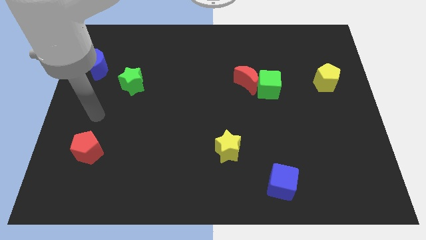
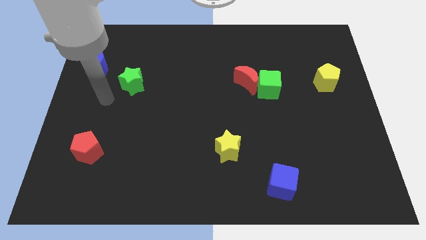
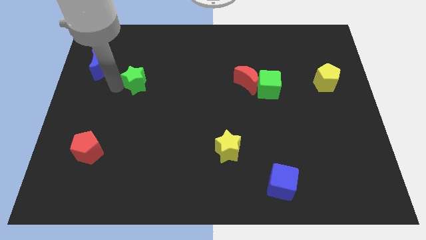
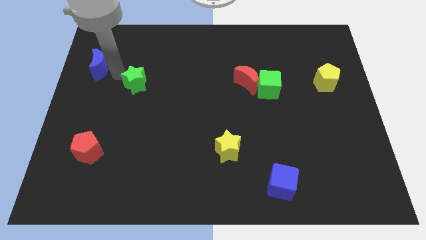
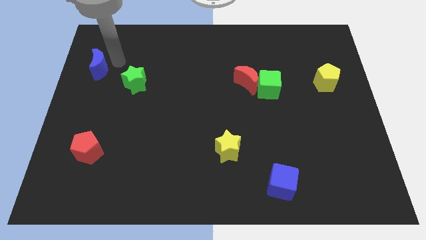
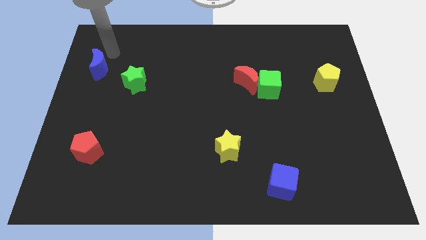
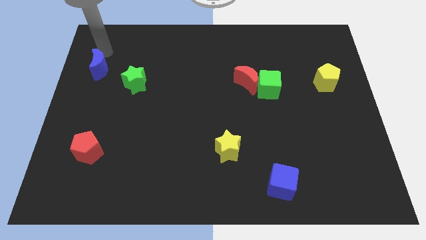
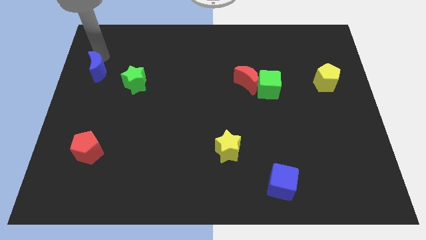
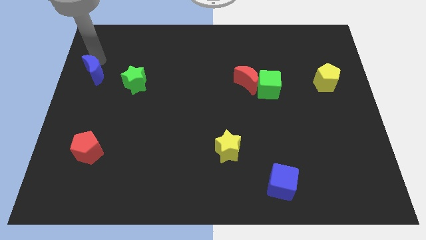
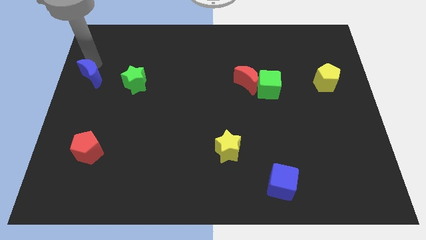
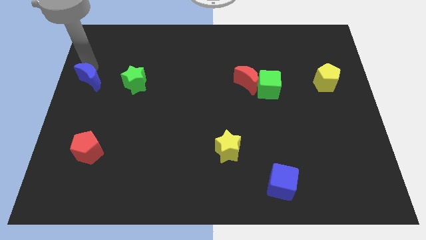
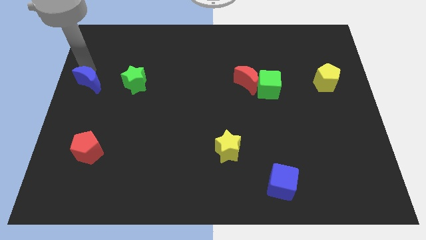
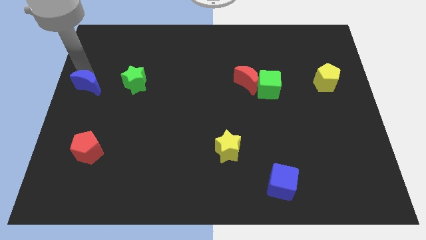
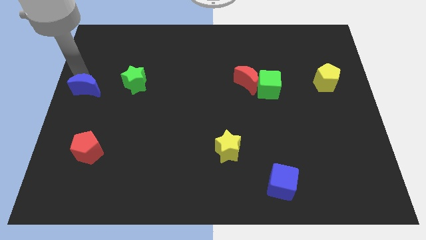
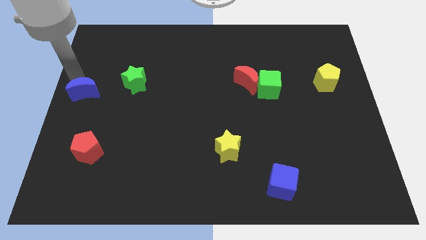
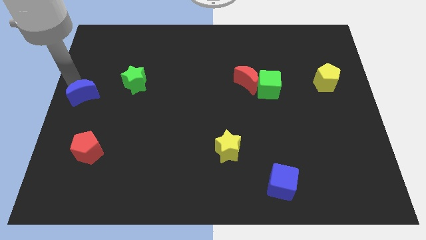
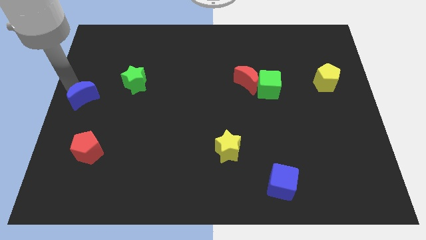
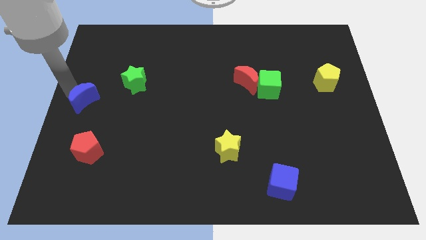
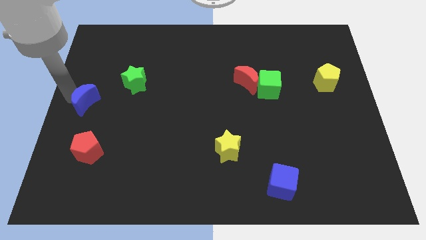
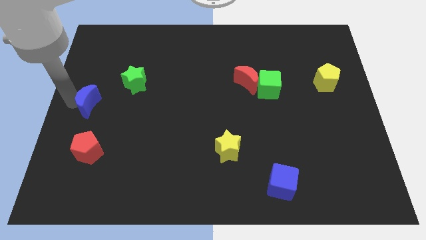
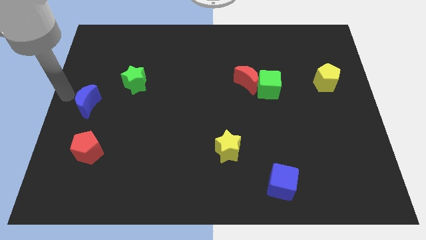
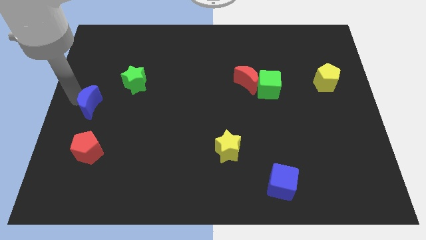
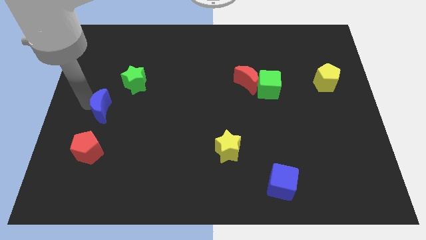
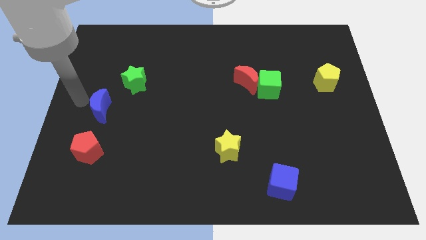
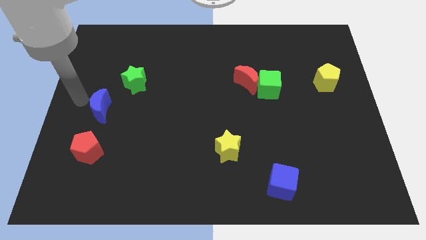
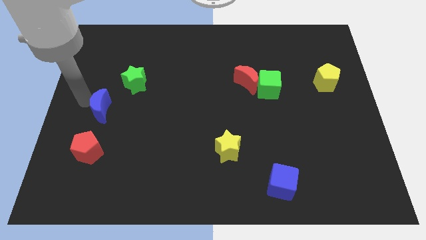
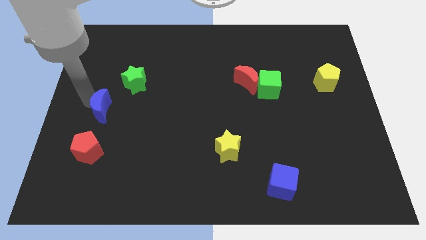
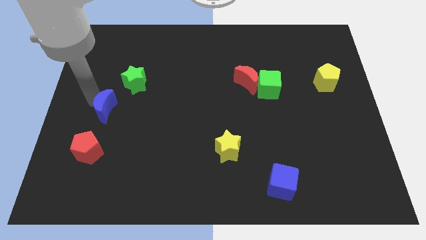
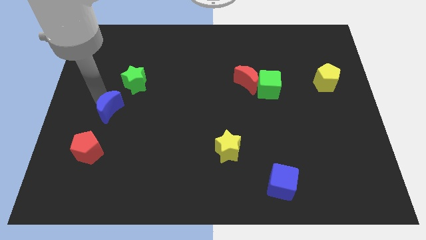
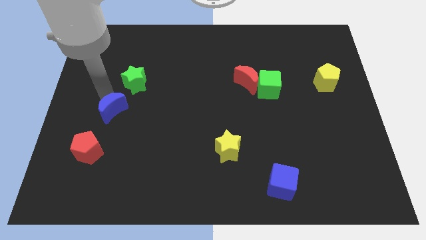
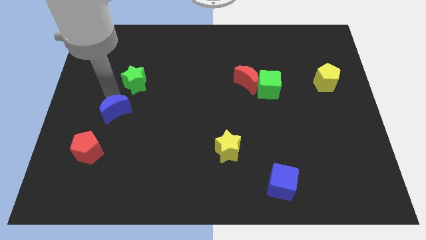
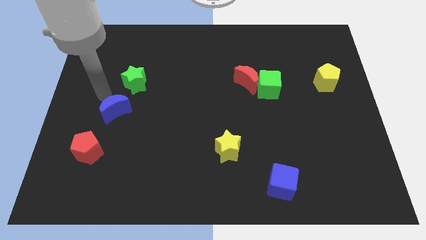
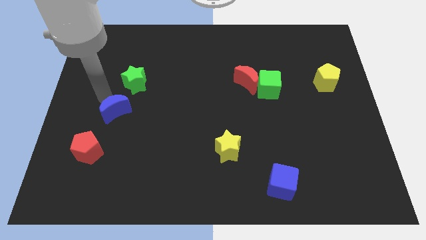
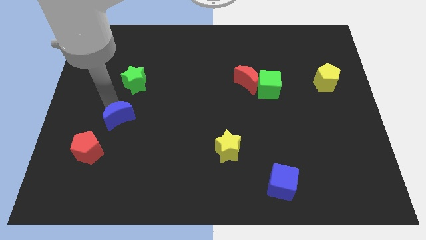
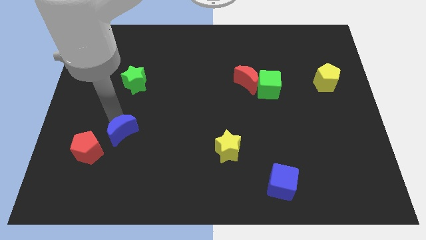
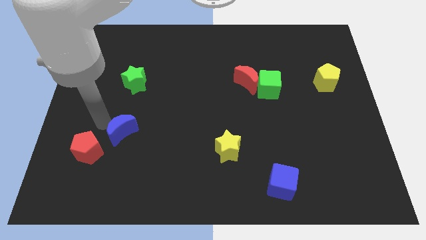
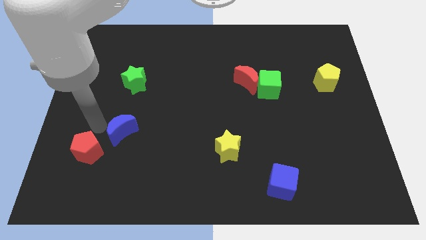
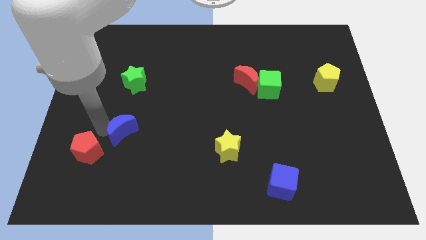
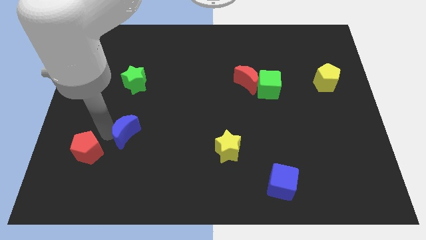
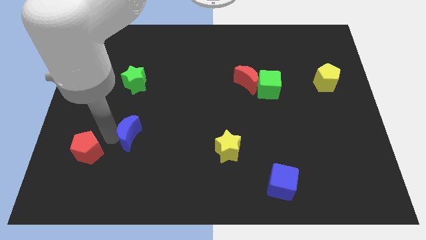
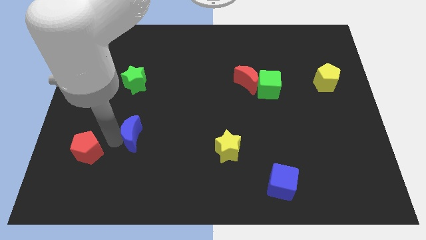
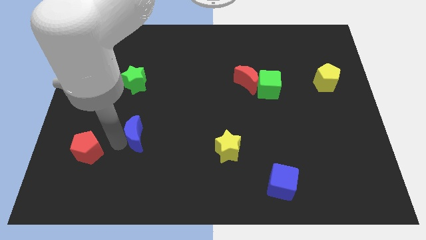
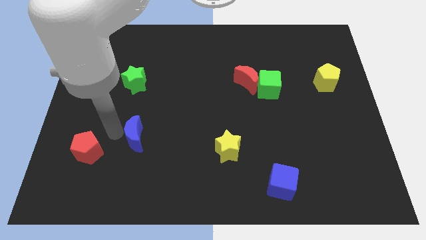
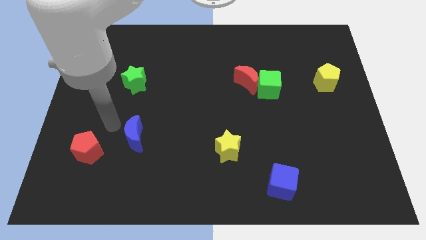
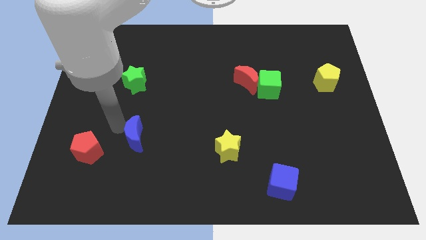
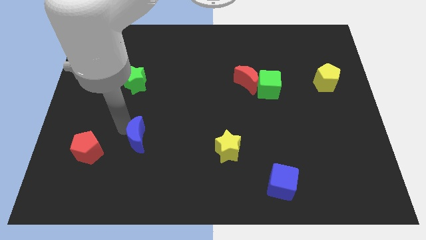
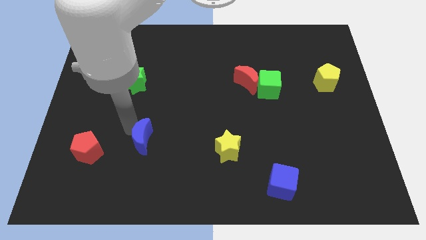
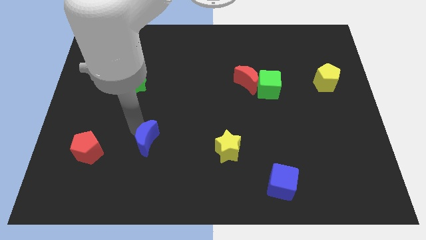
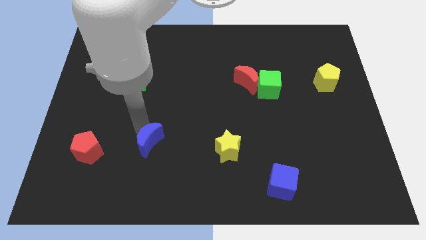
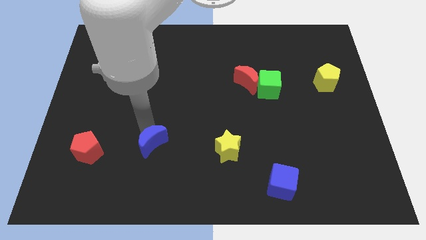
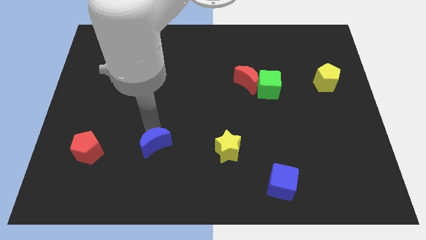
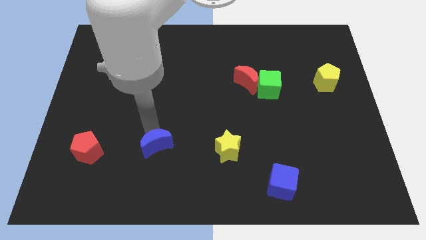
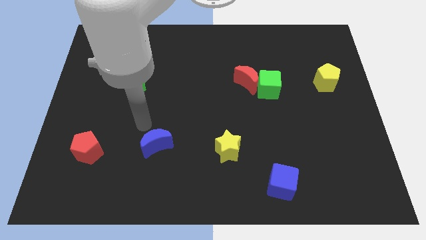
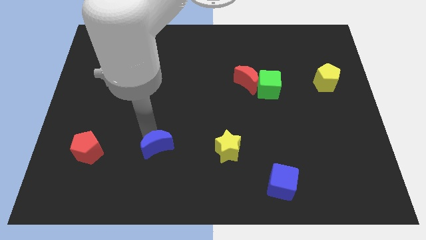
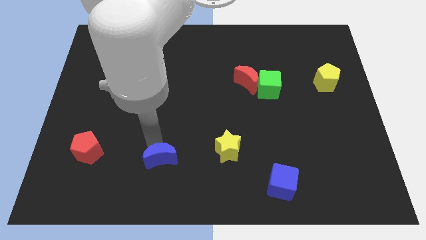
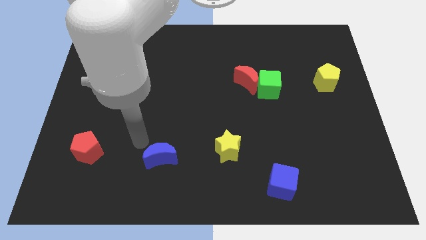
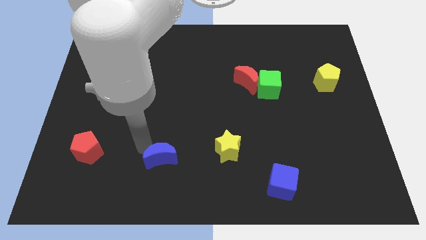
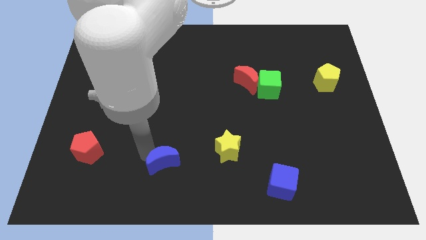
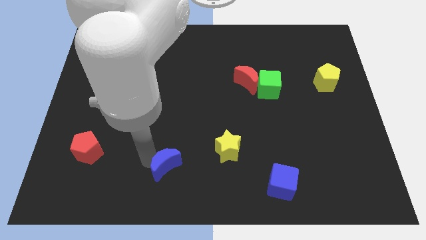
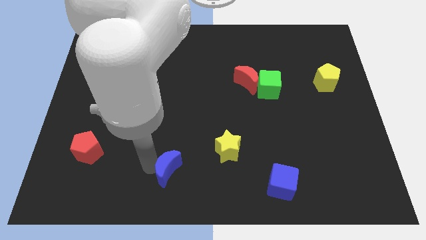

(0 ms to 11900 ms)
push the blue moon to the bottom side
